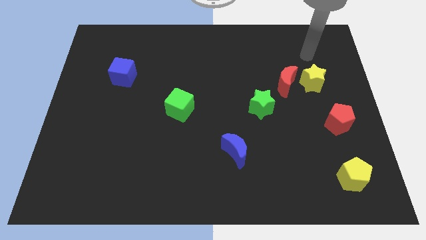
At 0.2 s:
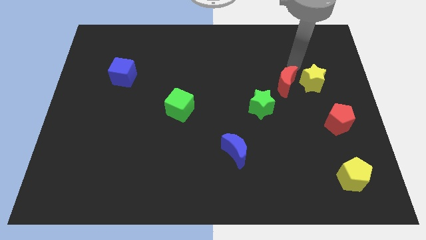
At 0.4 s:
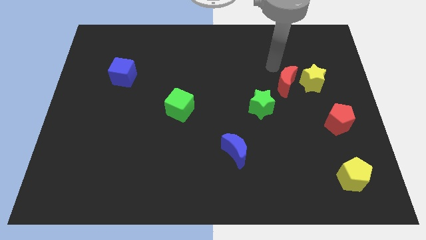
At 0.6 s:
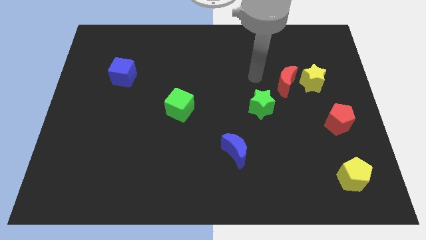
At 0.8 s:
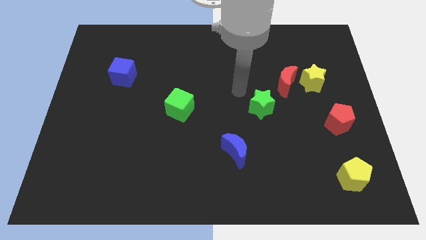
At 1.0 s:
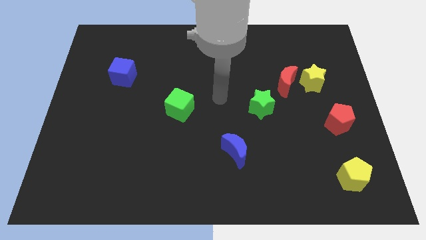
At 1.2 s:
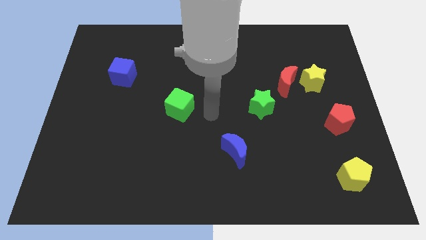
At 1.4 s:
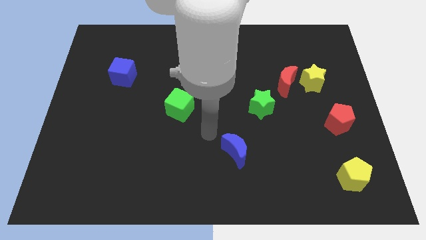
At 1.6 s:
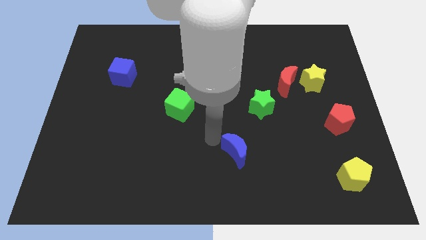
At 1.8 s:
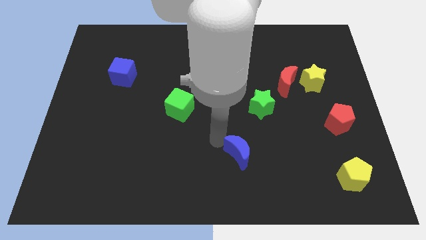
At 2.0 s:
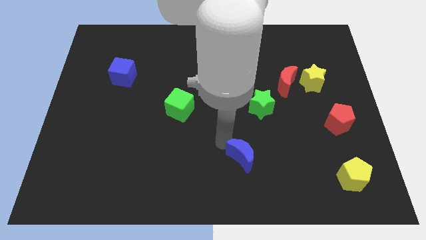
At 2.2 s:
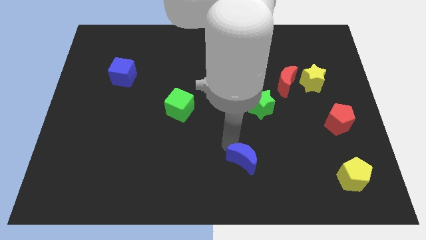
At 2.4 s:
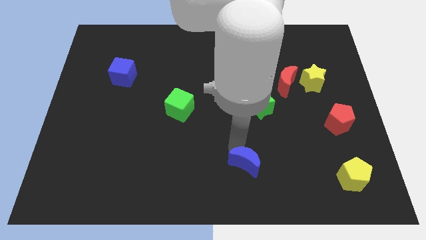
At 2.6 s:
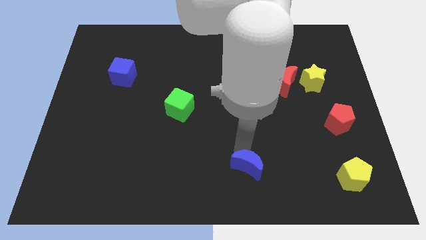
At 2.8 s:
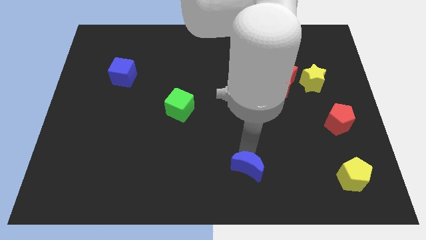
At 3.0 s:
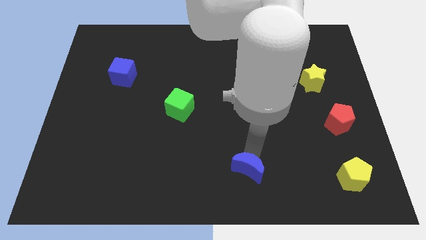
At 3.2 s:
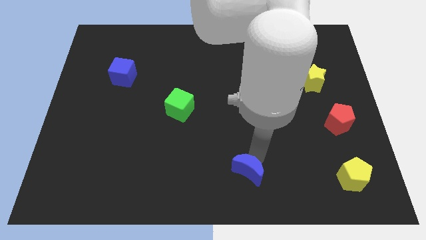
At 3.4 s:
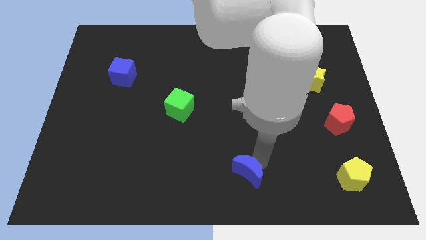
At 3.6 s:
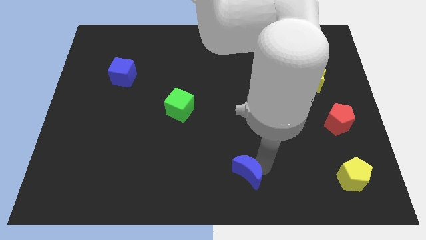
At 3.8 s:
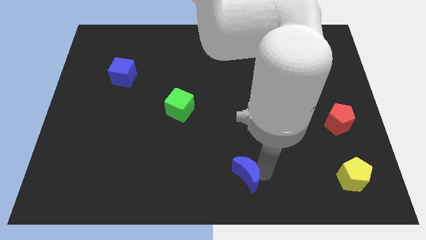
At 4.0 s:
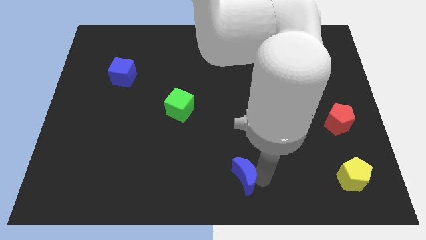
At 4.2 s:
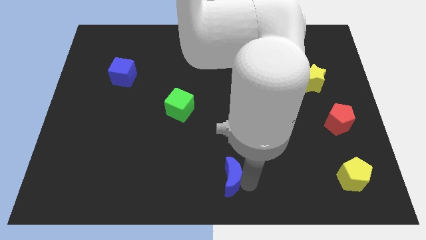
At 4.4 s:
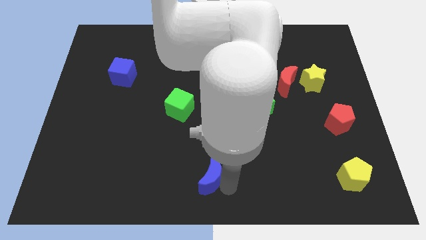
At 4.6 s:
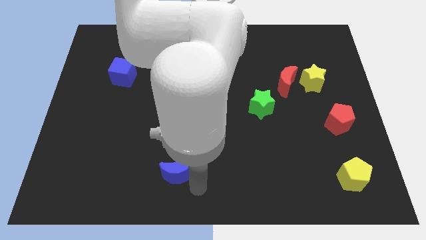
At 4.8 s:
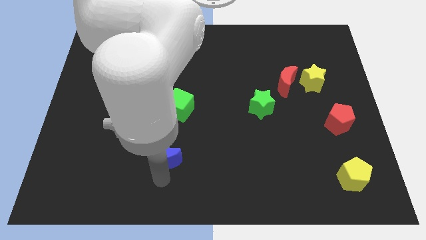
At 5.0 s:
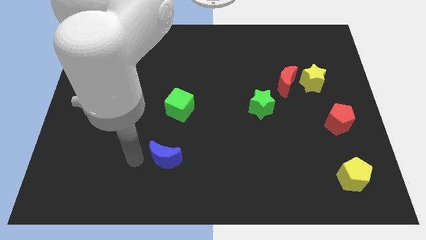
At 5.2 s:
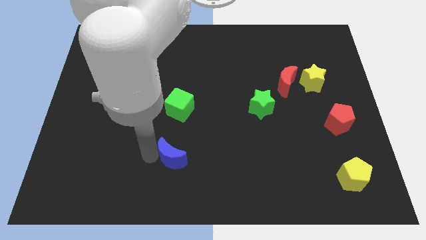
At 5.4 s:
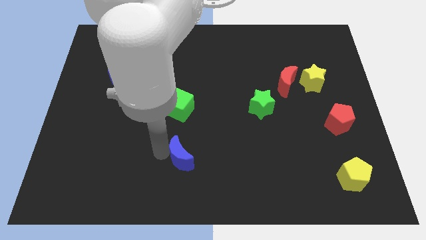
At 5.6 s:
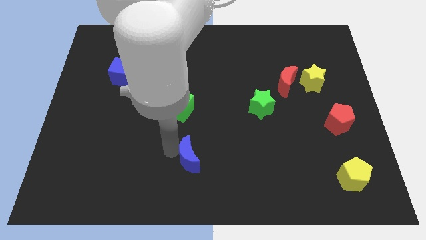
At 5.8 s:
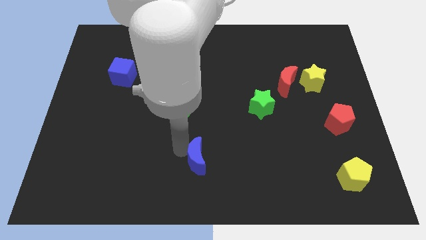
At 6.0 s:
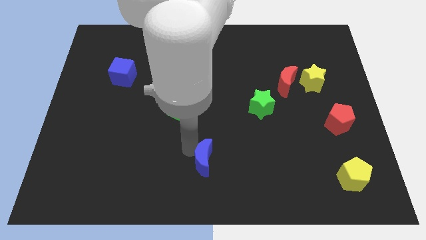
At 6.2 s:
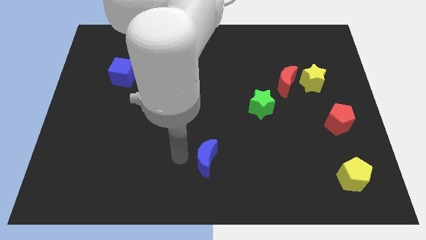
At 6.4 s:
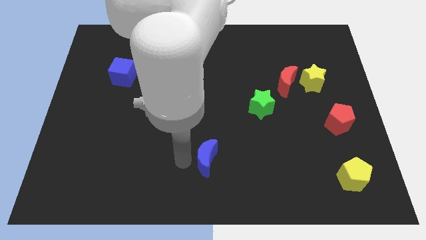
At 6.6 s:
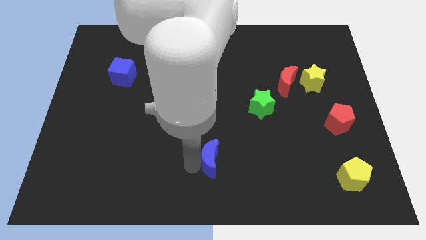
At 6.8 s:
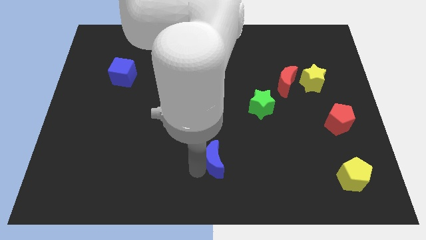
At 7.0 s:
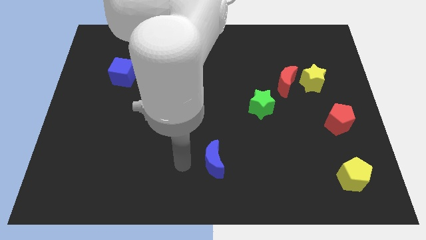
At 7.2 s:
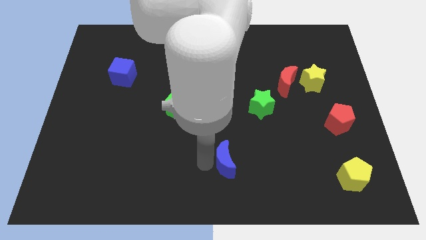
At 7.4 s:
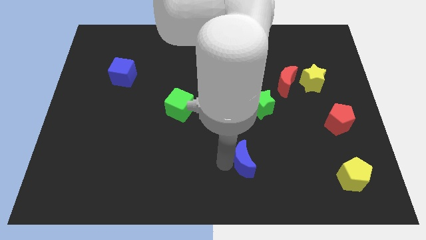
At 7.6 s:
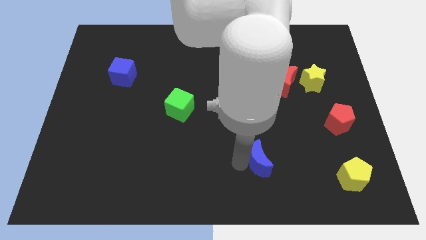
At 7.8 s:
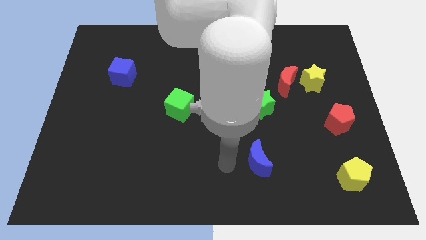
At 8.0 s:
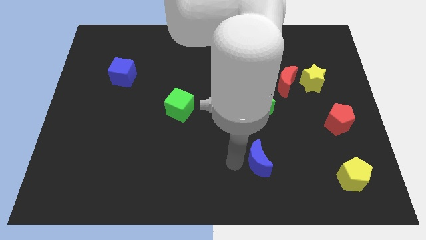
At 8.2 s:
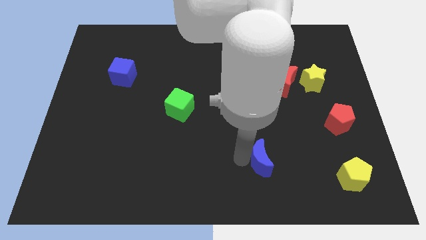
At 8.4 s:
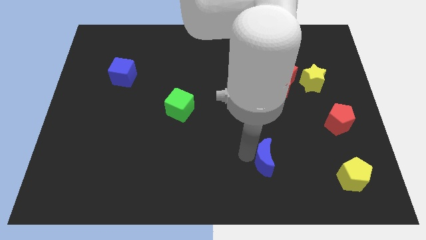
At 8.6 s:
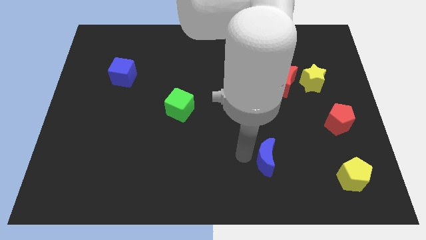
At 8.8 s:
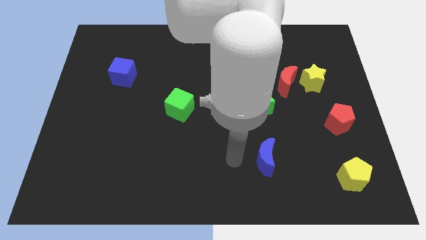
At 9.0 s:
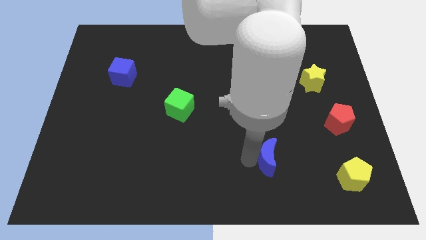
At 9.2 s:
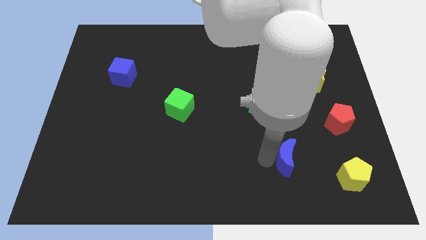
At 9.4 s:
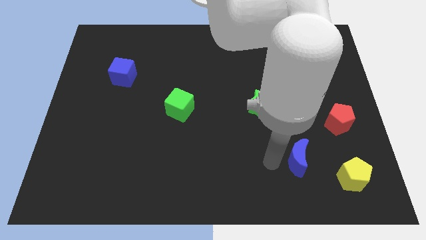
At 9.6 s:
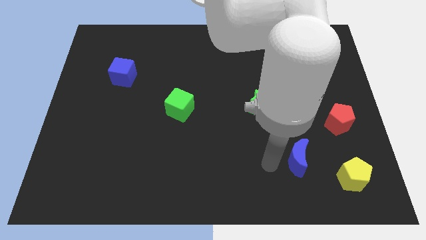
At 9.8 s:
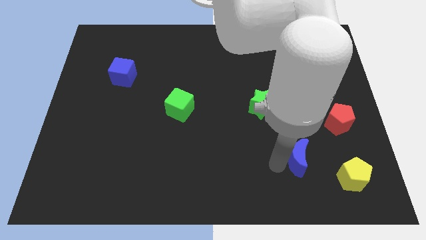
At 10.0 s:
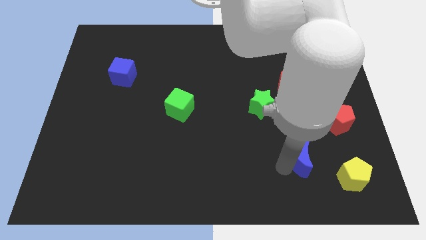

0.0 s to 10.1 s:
put the blue moon to the top left of the yellow pentagon

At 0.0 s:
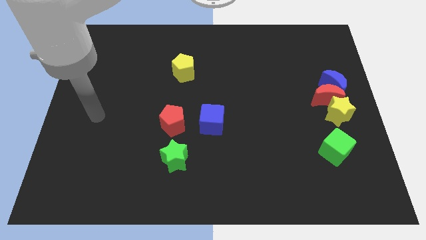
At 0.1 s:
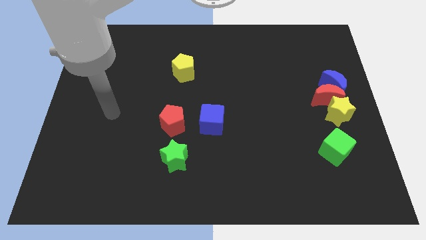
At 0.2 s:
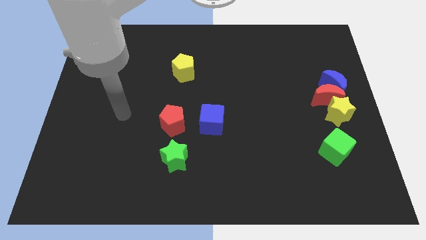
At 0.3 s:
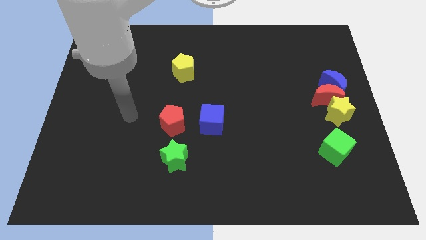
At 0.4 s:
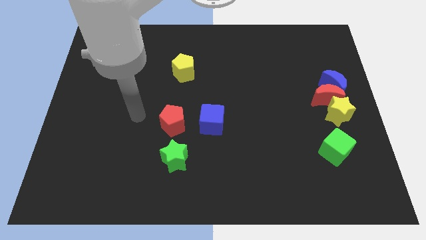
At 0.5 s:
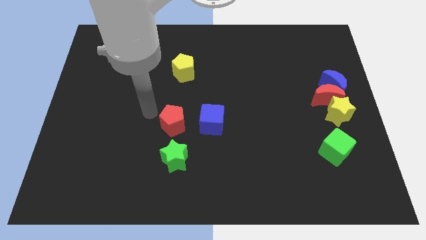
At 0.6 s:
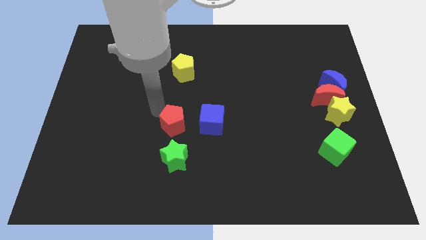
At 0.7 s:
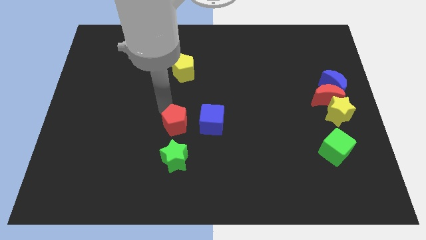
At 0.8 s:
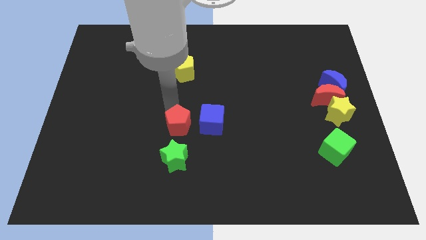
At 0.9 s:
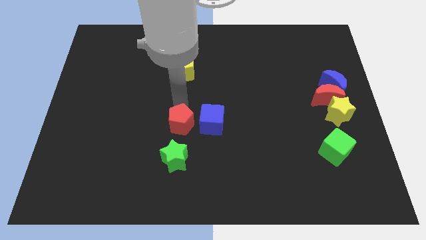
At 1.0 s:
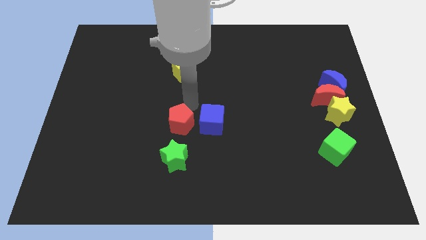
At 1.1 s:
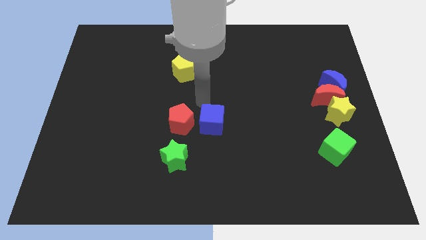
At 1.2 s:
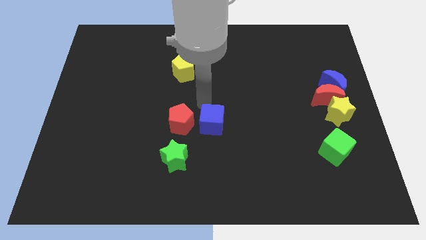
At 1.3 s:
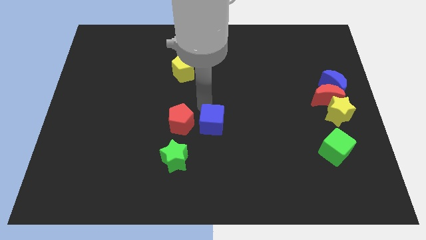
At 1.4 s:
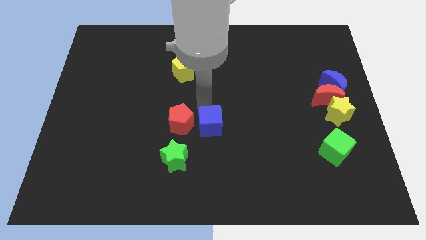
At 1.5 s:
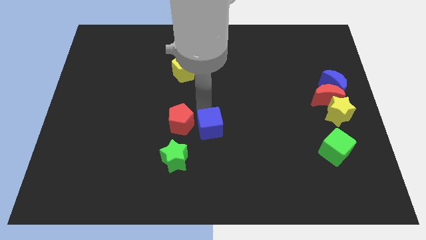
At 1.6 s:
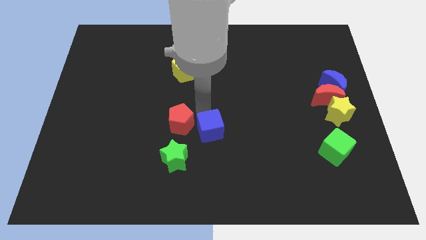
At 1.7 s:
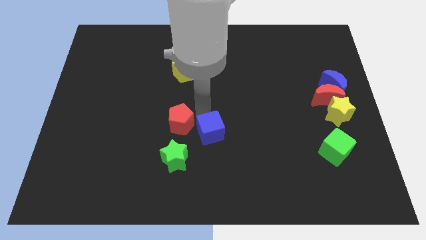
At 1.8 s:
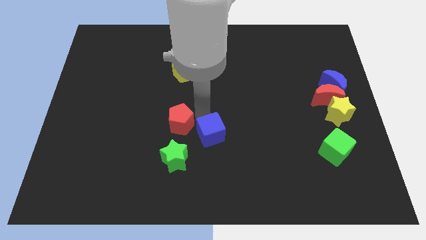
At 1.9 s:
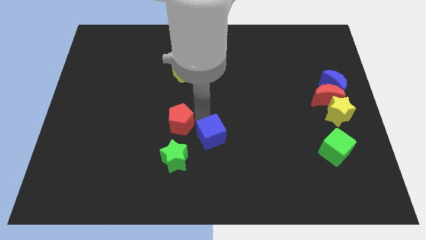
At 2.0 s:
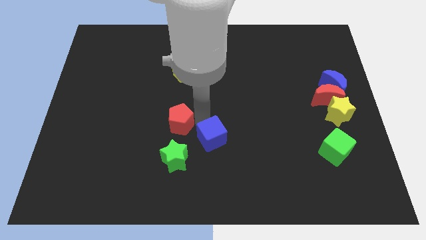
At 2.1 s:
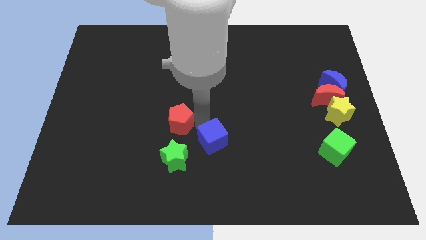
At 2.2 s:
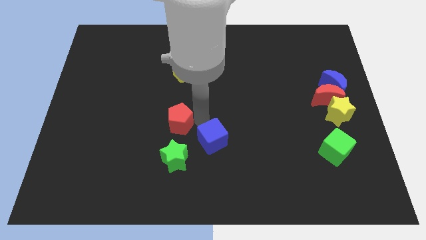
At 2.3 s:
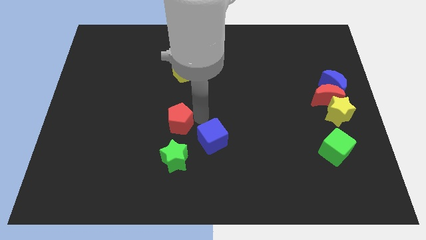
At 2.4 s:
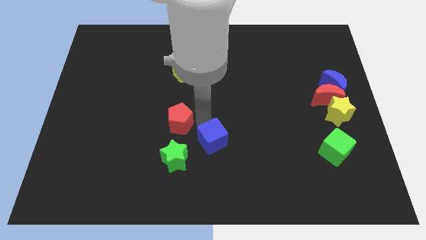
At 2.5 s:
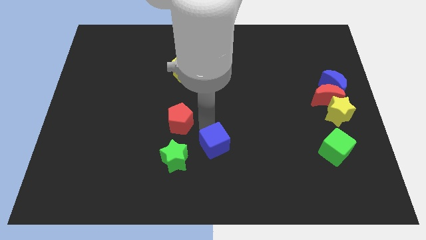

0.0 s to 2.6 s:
move the blue cube to the right side of the green star
